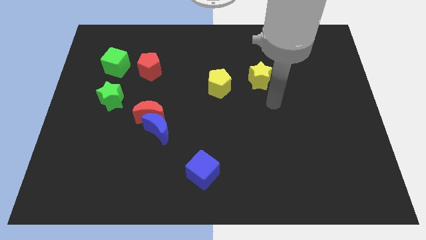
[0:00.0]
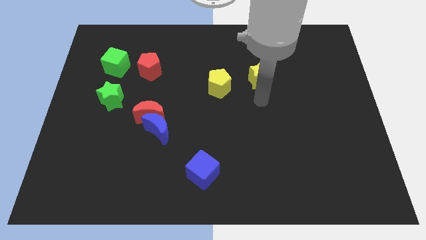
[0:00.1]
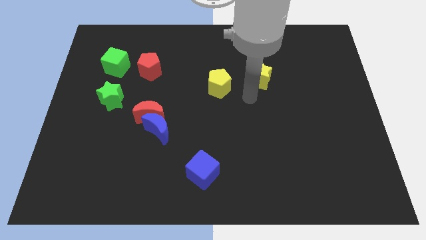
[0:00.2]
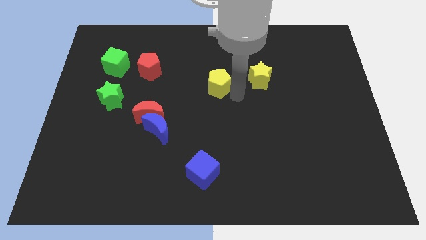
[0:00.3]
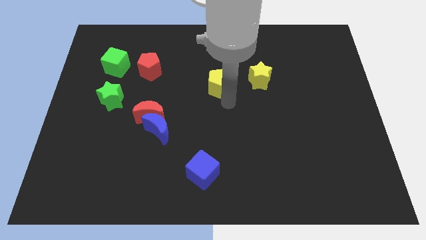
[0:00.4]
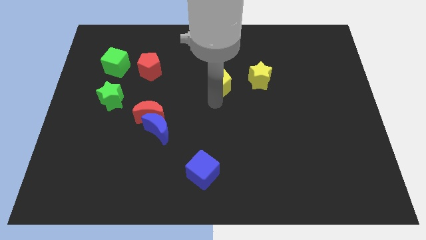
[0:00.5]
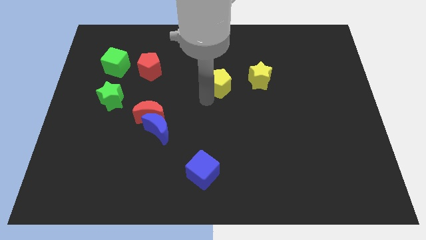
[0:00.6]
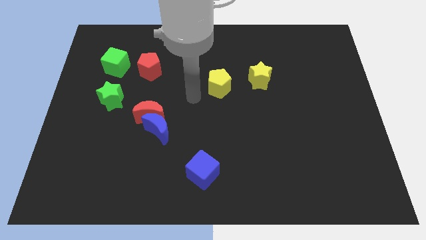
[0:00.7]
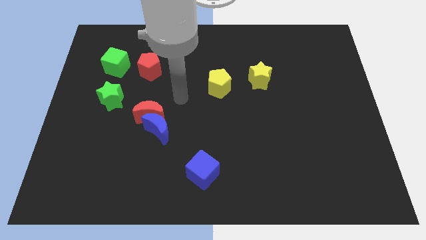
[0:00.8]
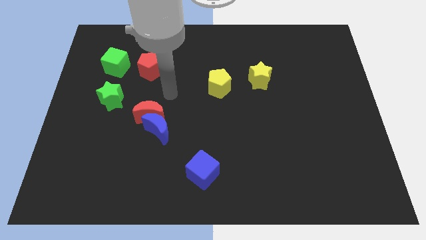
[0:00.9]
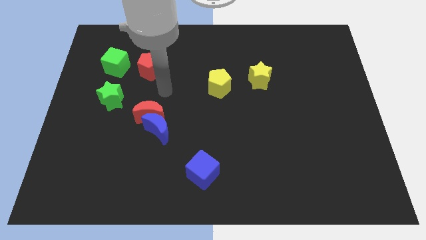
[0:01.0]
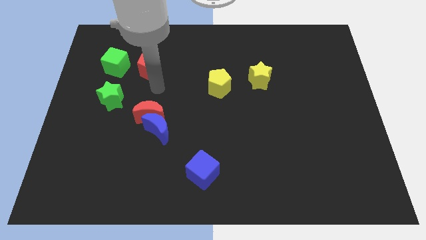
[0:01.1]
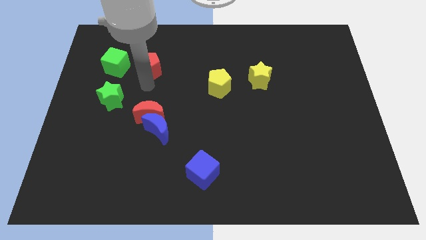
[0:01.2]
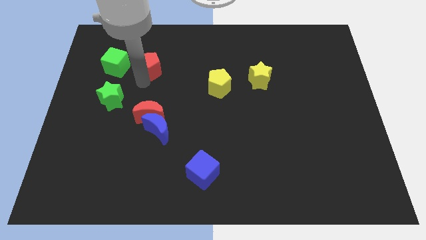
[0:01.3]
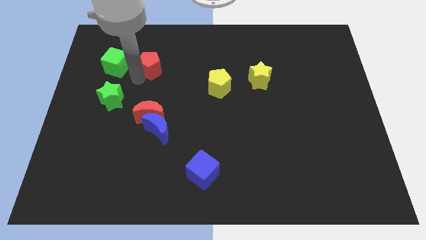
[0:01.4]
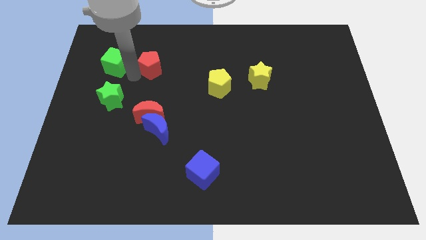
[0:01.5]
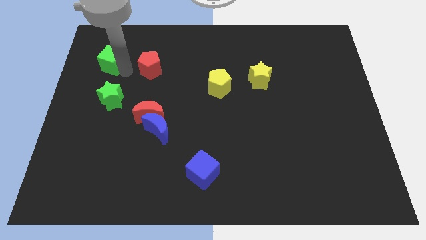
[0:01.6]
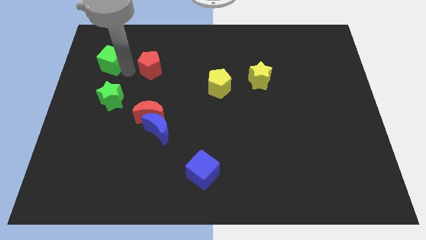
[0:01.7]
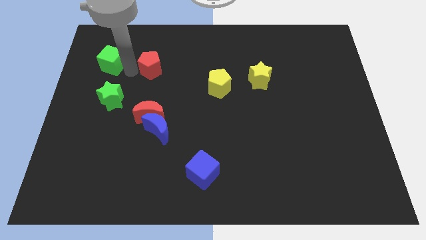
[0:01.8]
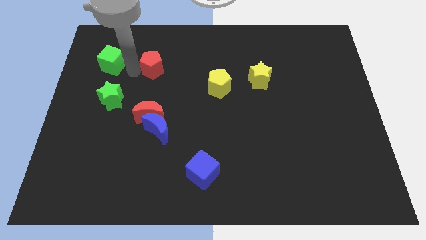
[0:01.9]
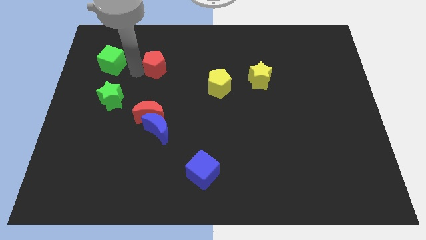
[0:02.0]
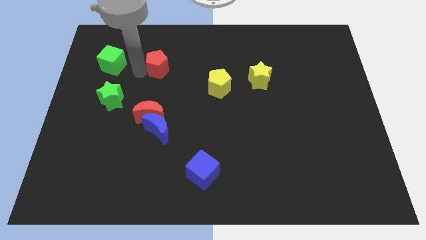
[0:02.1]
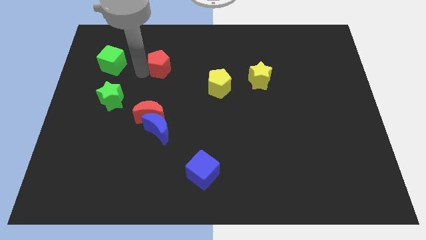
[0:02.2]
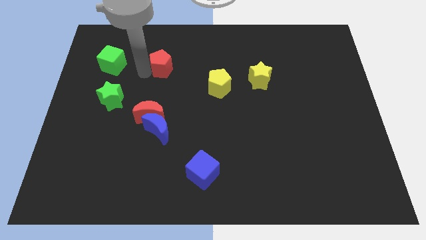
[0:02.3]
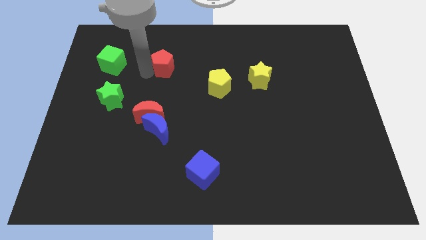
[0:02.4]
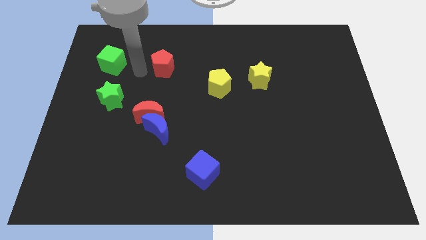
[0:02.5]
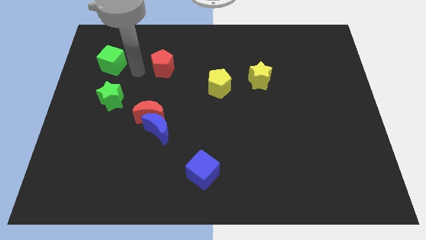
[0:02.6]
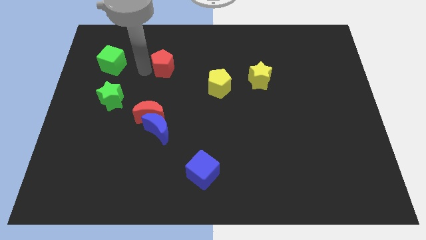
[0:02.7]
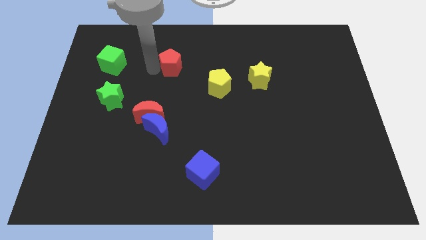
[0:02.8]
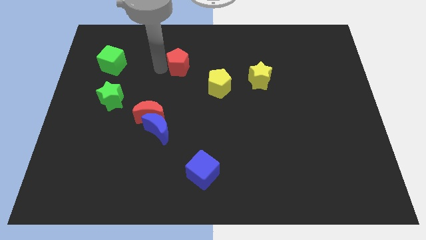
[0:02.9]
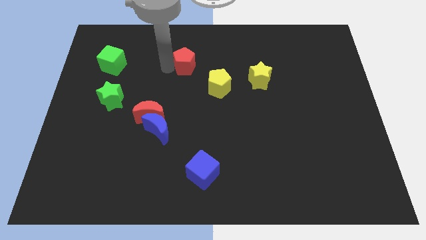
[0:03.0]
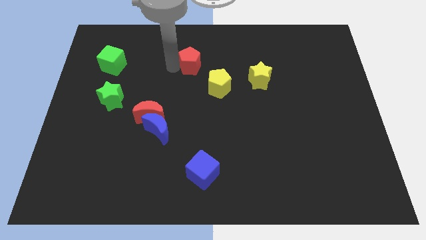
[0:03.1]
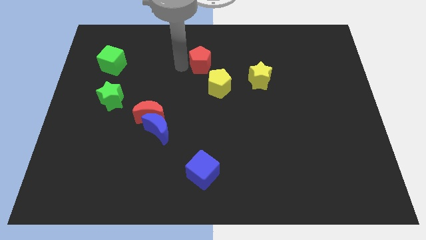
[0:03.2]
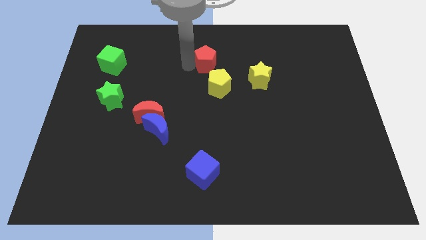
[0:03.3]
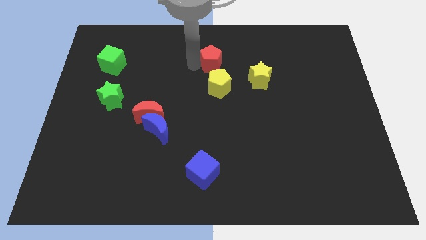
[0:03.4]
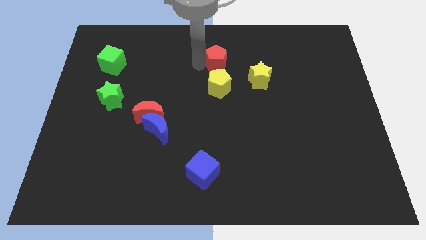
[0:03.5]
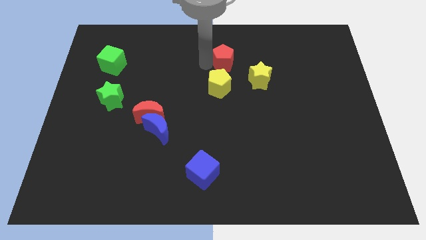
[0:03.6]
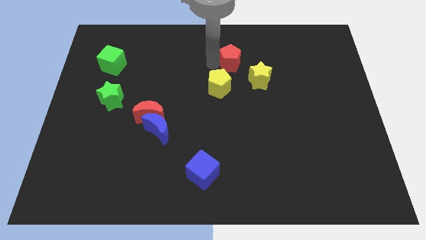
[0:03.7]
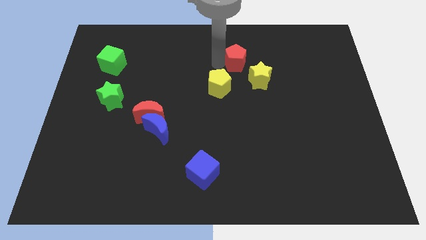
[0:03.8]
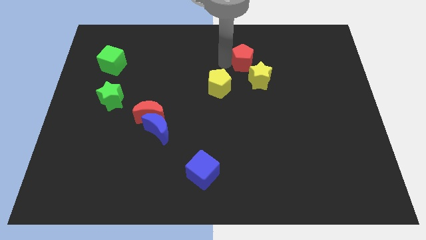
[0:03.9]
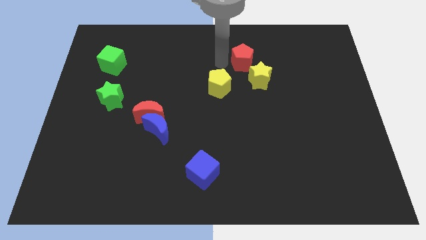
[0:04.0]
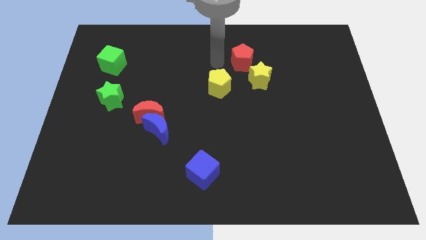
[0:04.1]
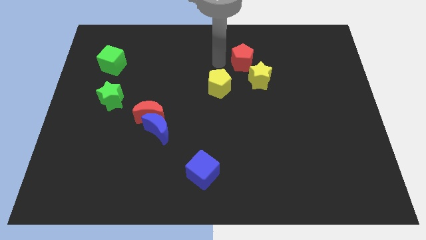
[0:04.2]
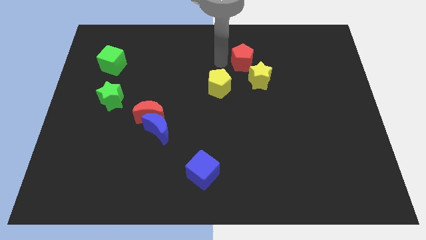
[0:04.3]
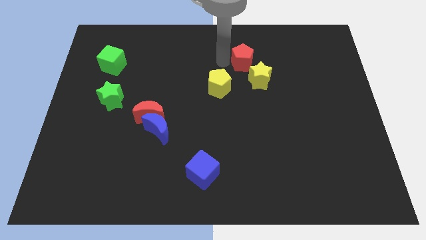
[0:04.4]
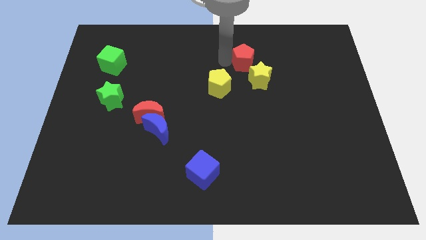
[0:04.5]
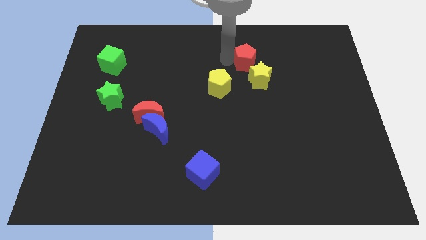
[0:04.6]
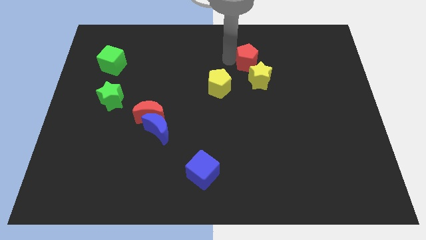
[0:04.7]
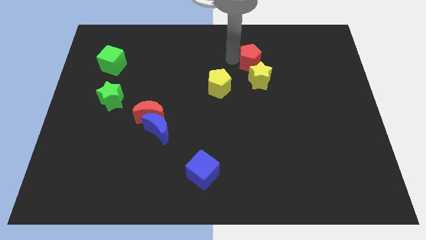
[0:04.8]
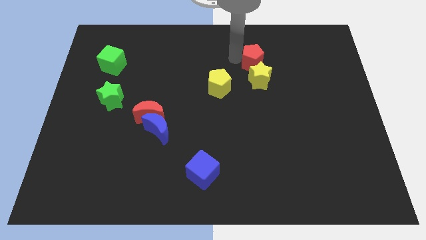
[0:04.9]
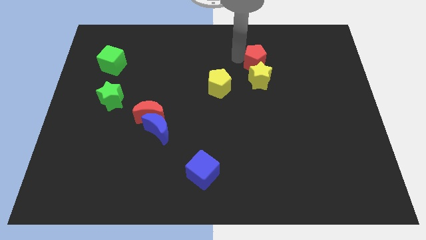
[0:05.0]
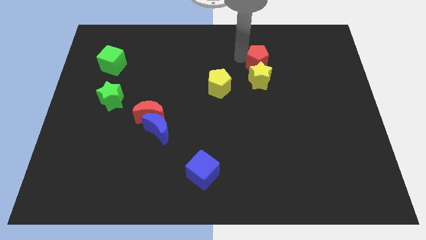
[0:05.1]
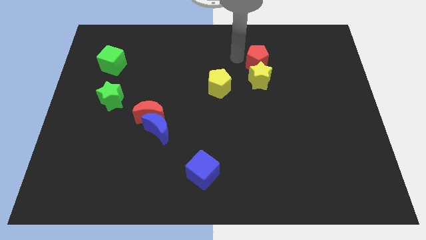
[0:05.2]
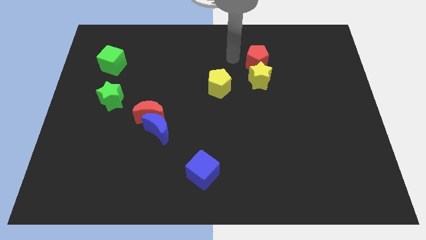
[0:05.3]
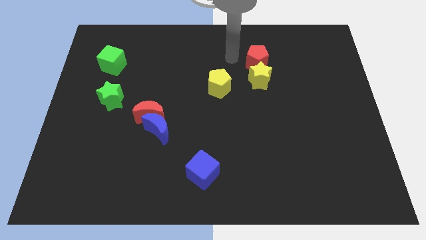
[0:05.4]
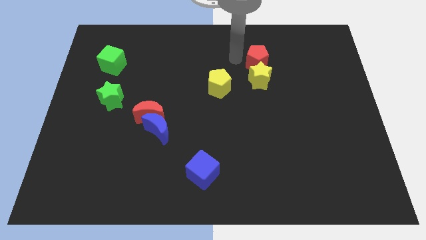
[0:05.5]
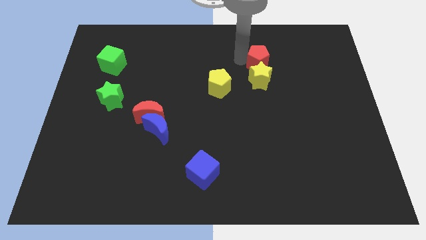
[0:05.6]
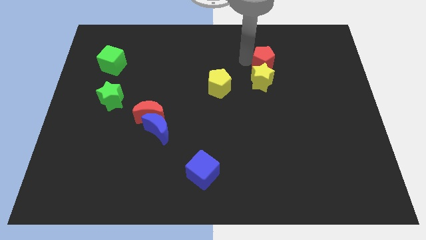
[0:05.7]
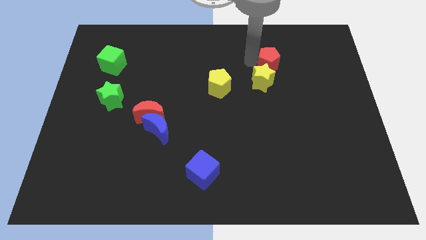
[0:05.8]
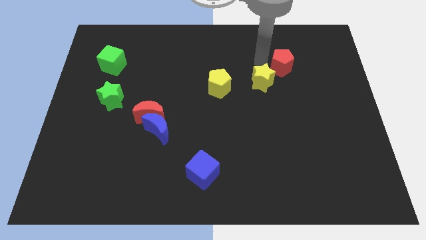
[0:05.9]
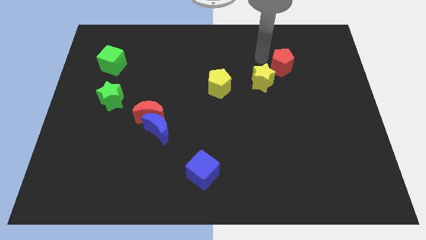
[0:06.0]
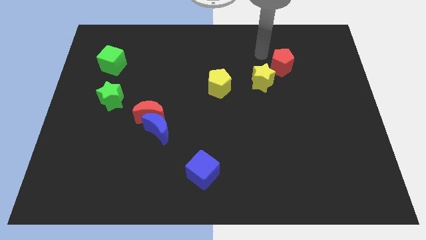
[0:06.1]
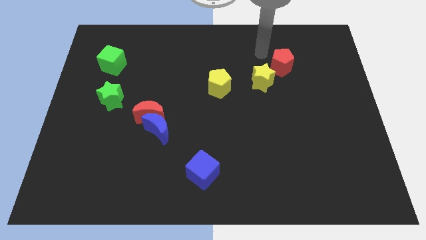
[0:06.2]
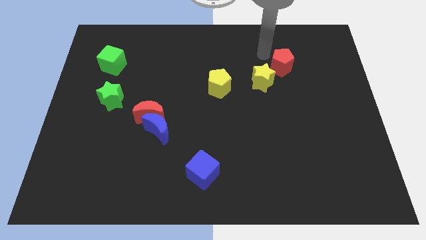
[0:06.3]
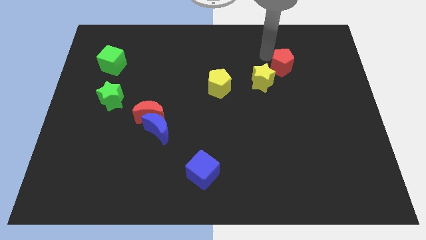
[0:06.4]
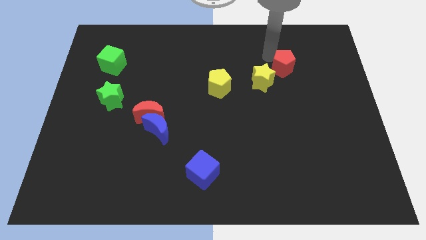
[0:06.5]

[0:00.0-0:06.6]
move the red pentagon to the right side of the yellow star
